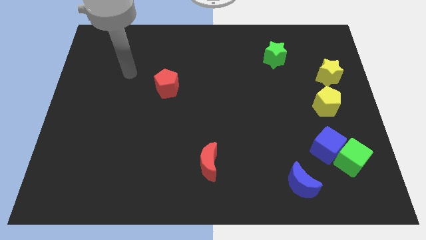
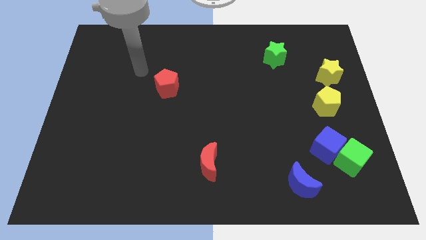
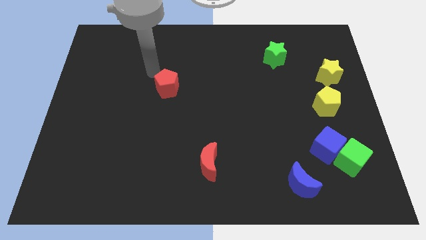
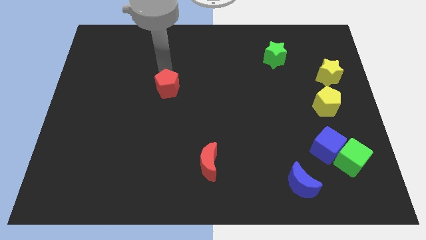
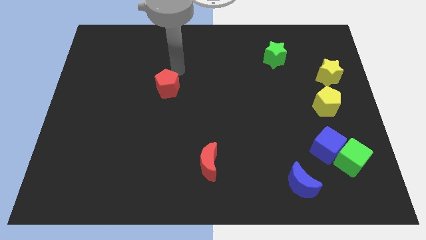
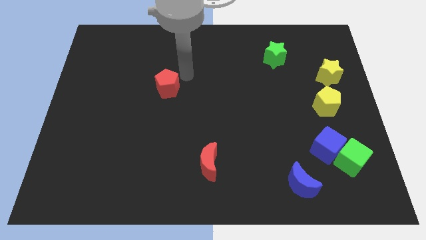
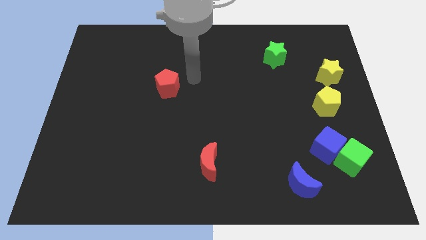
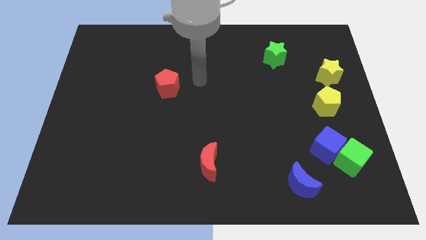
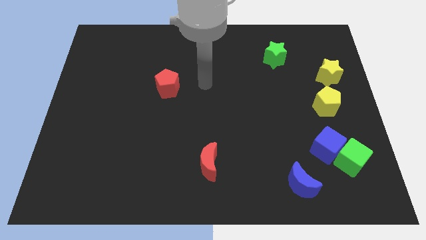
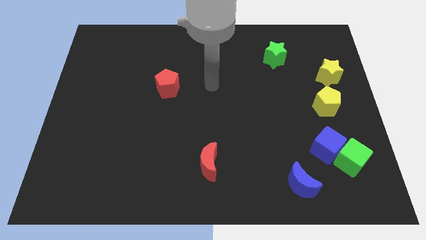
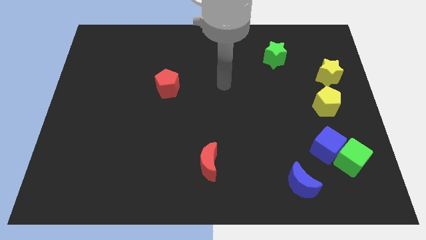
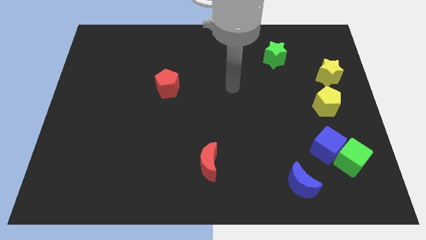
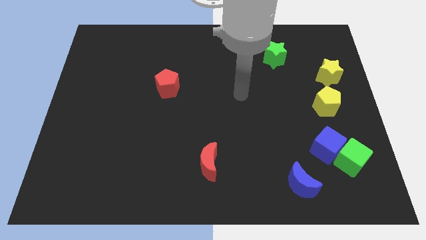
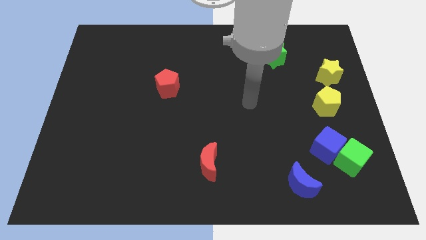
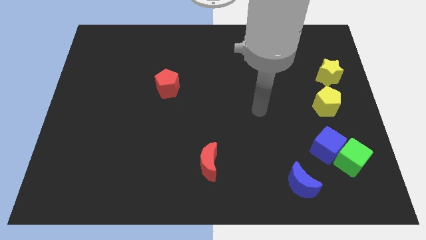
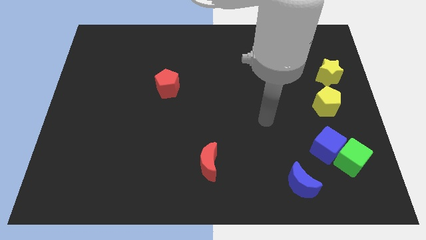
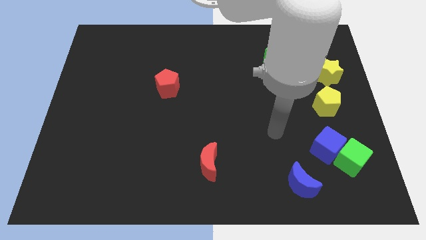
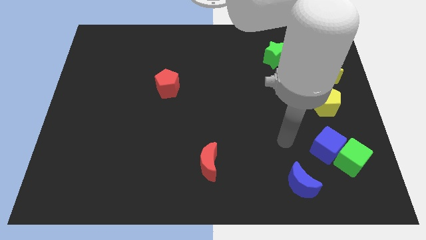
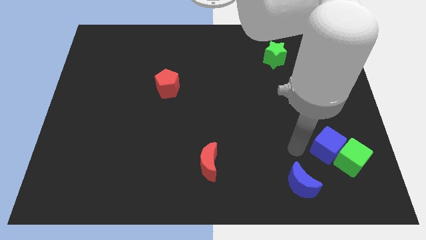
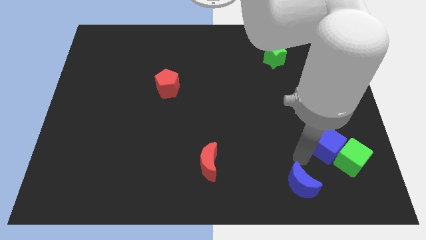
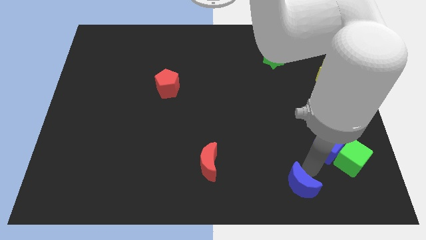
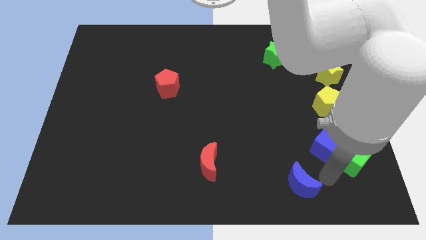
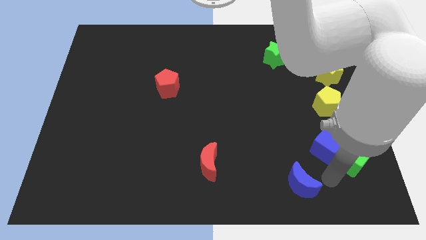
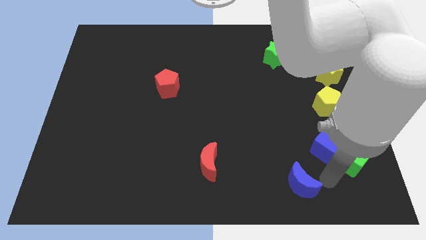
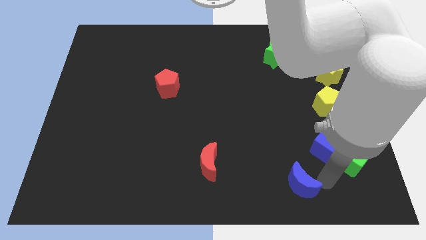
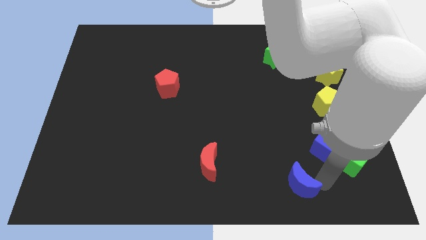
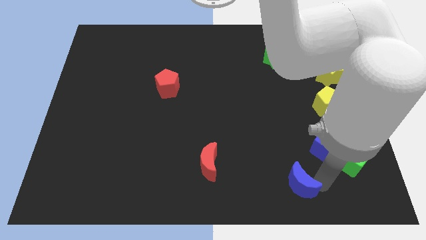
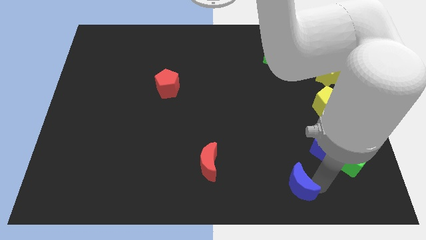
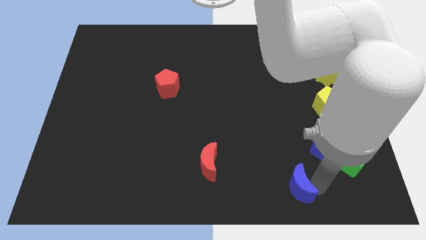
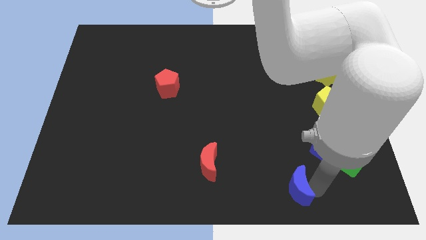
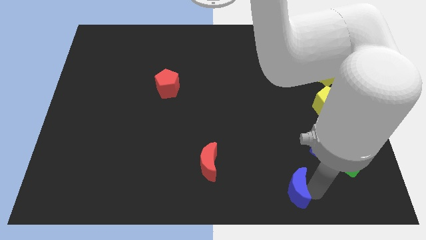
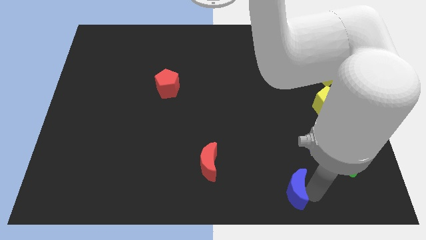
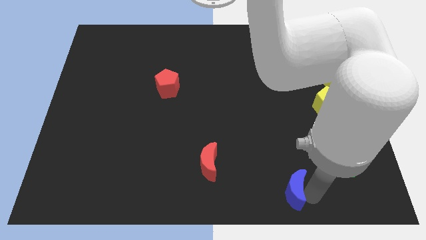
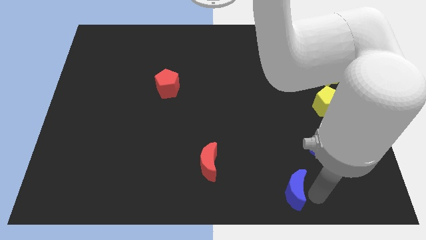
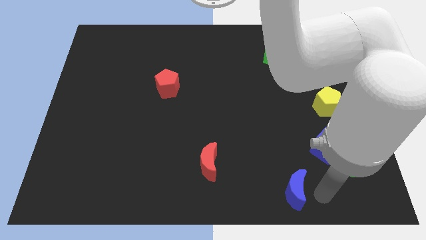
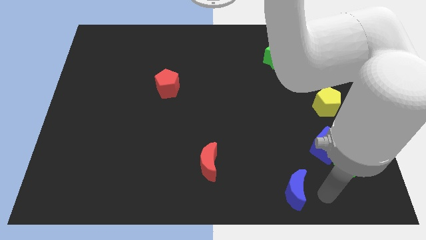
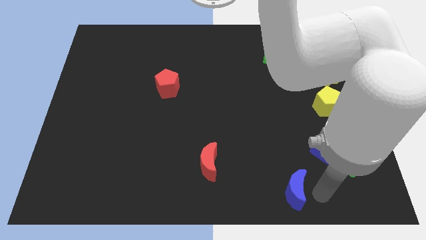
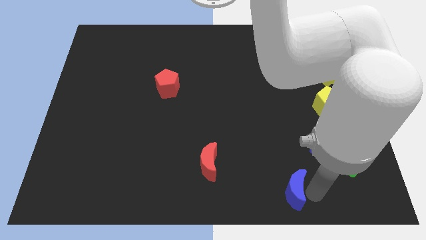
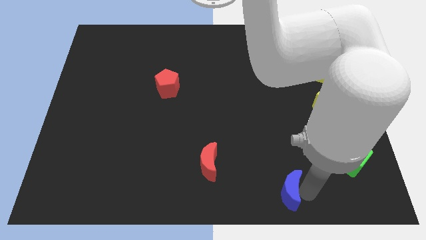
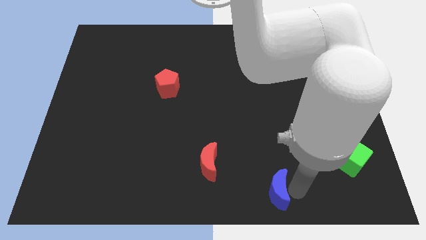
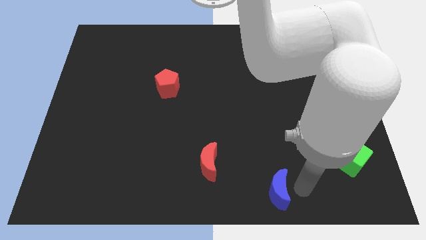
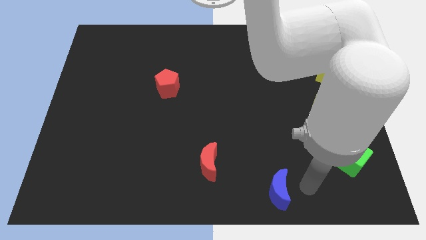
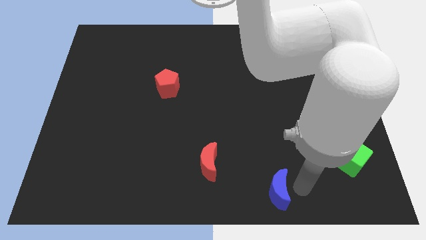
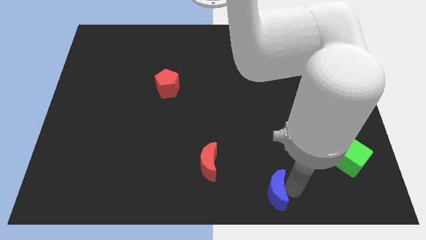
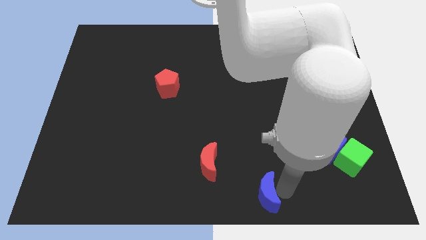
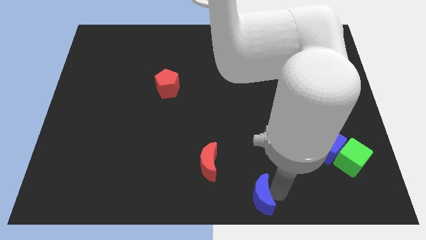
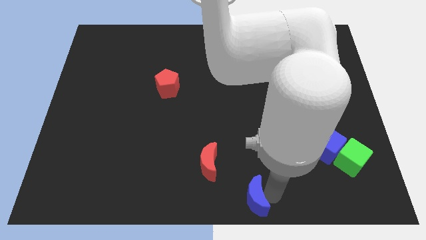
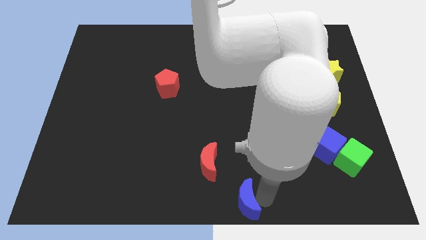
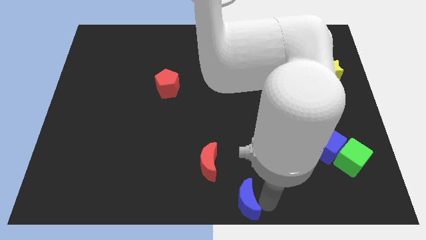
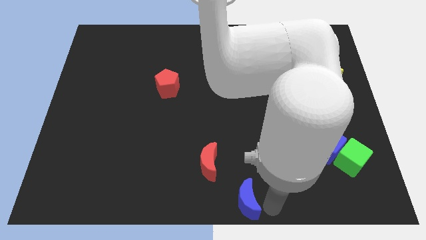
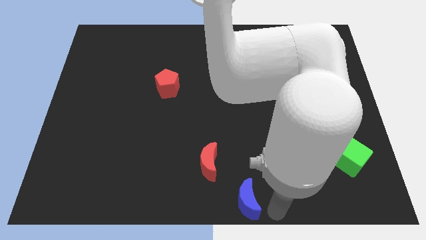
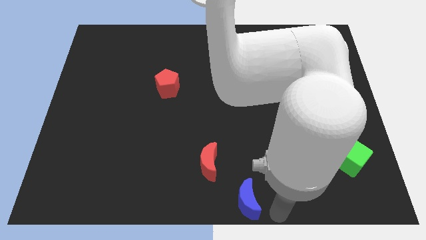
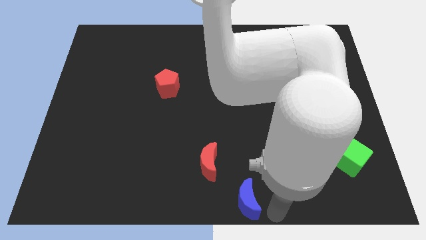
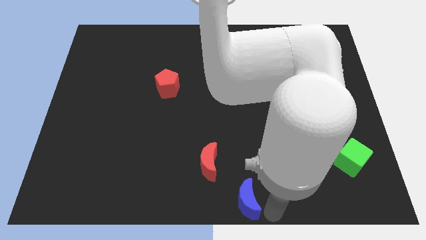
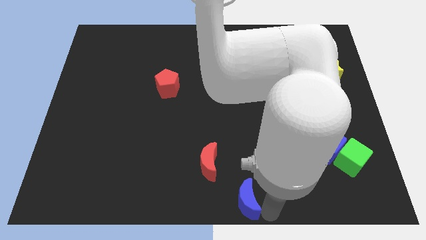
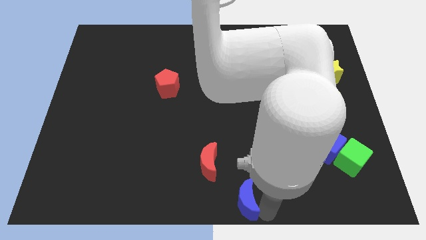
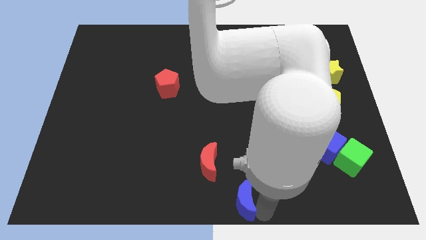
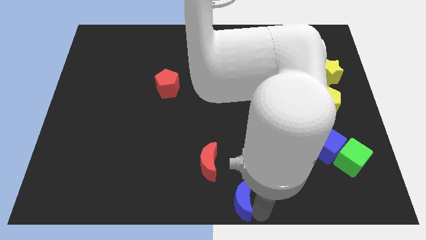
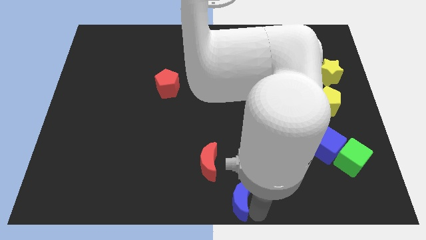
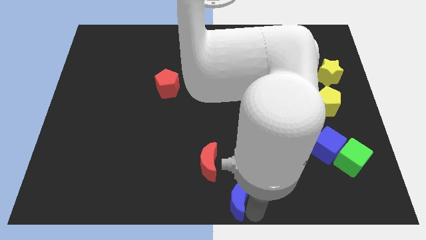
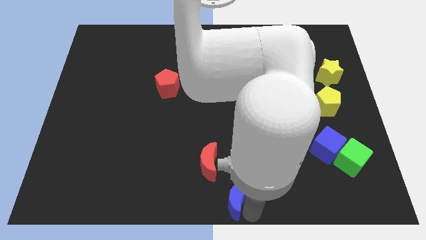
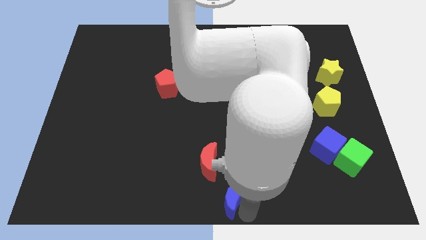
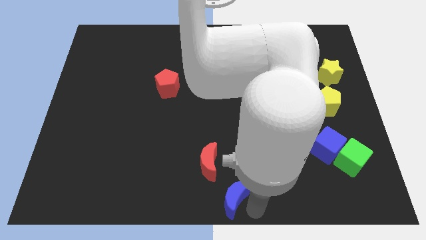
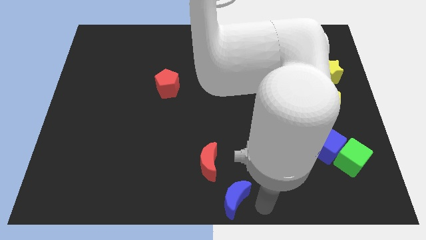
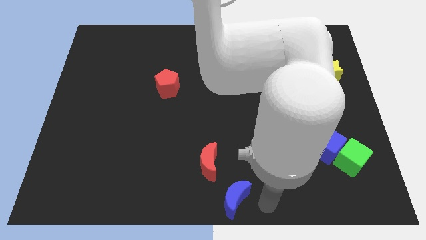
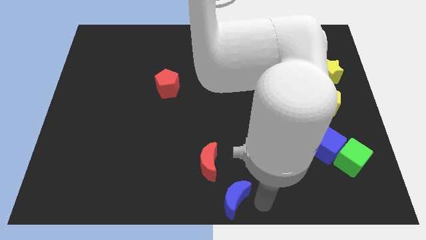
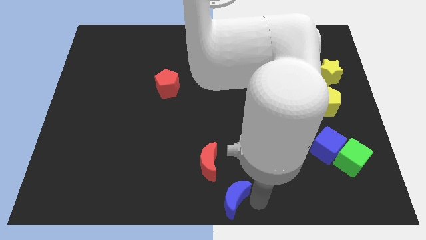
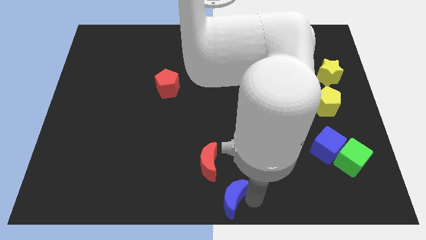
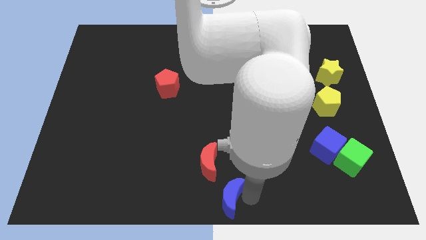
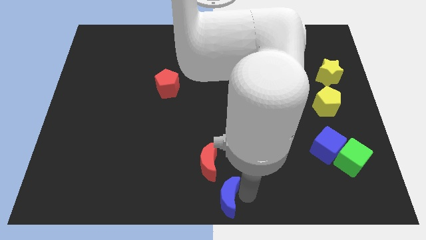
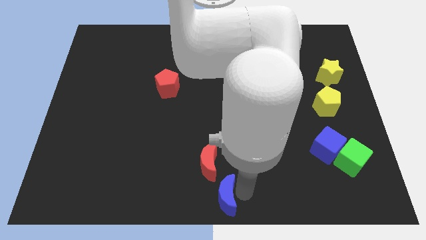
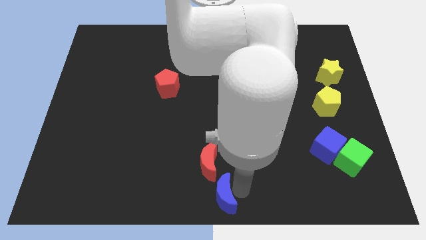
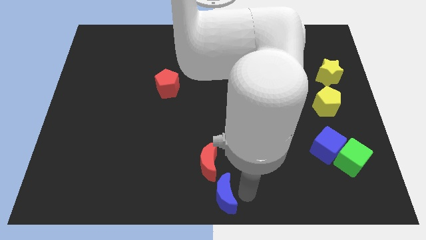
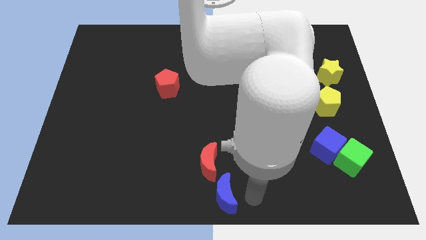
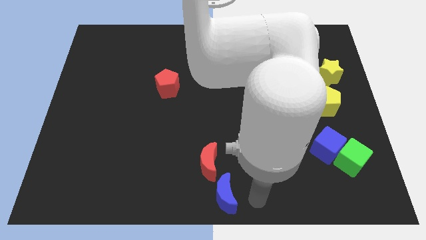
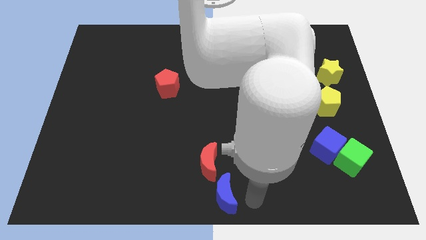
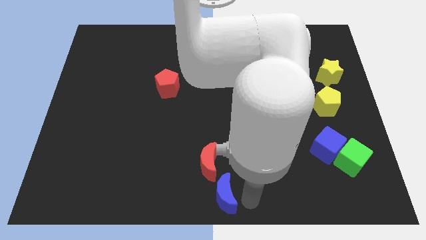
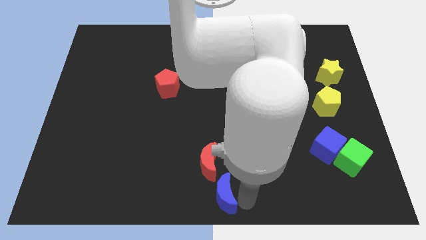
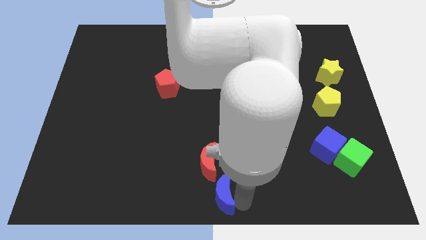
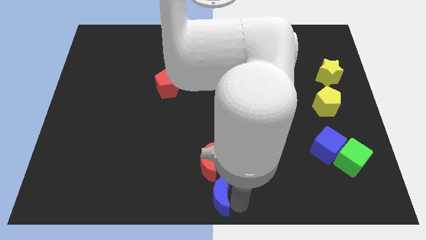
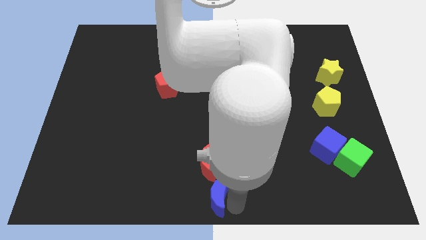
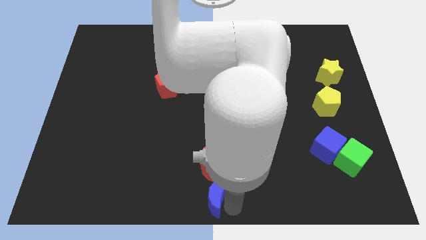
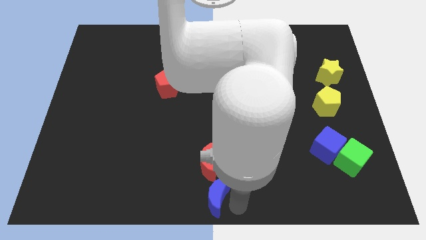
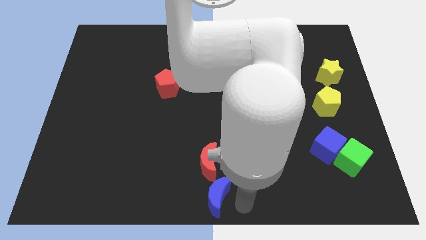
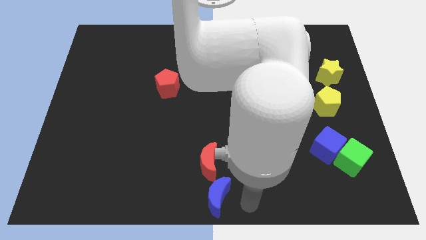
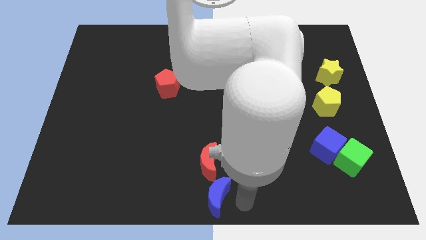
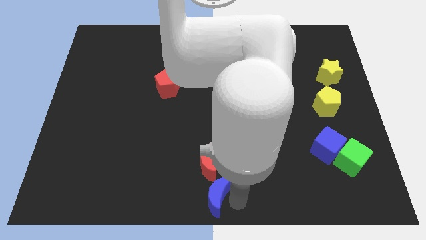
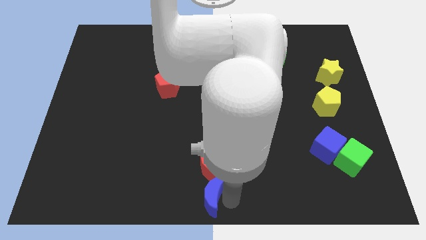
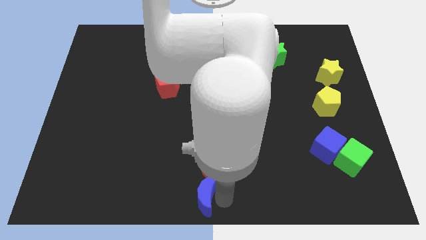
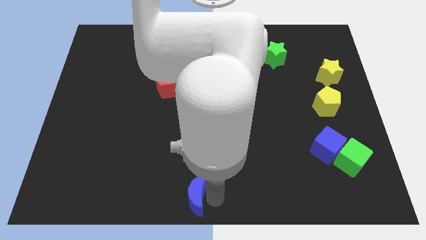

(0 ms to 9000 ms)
push the blue moon left
